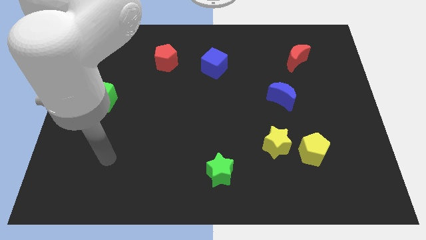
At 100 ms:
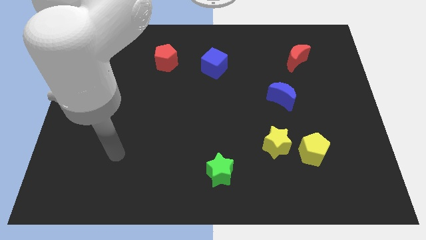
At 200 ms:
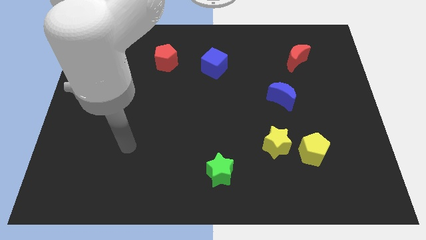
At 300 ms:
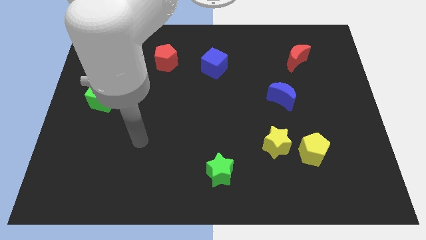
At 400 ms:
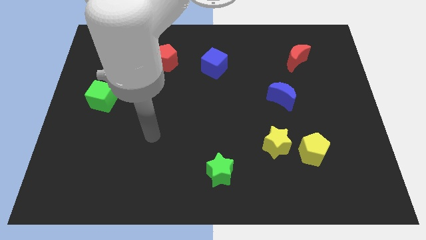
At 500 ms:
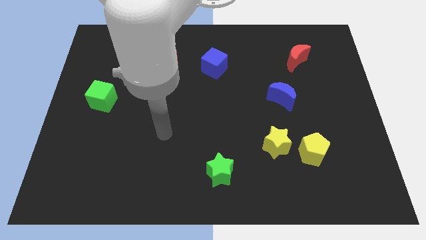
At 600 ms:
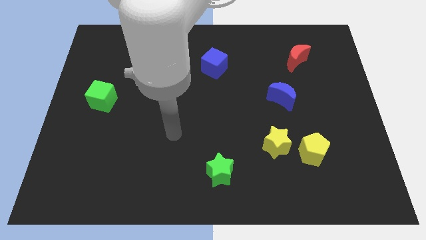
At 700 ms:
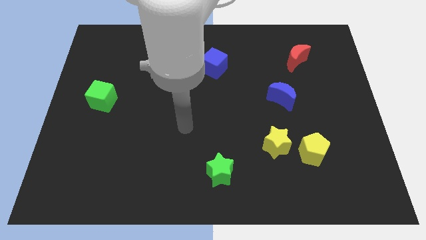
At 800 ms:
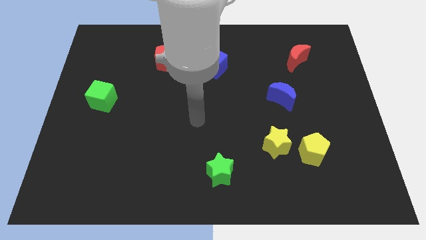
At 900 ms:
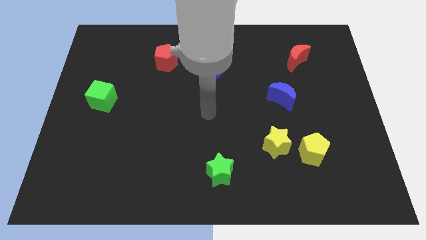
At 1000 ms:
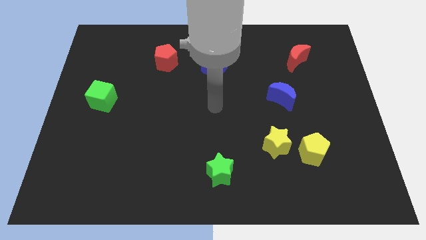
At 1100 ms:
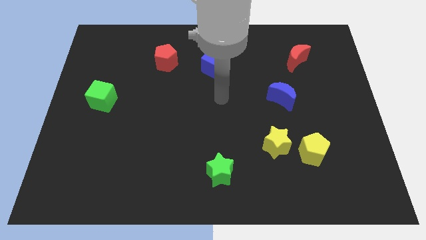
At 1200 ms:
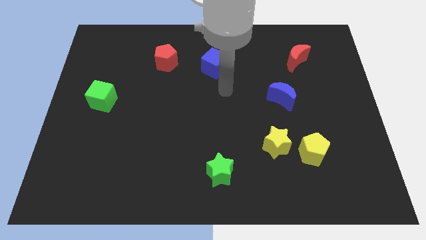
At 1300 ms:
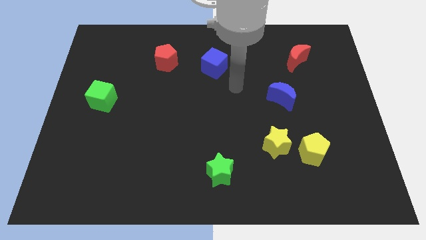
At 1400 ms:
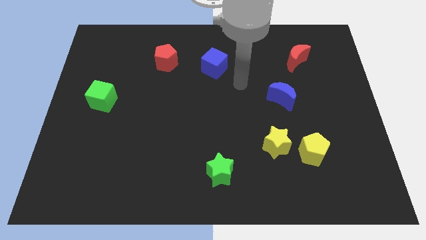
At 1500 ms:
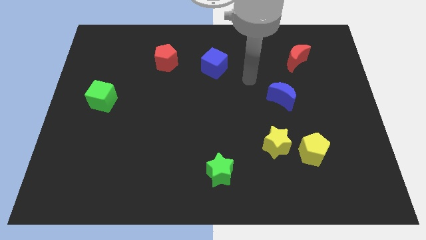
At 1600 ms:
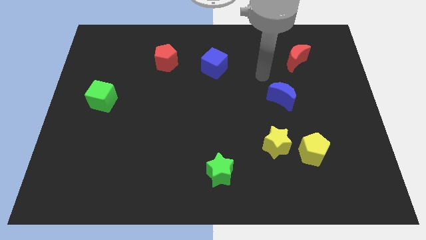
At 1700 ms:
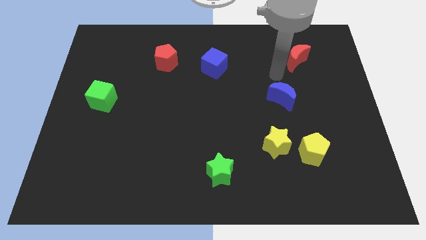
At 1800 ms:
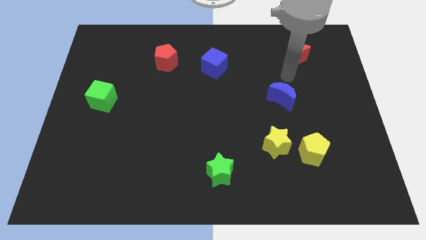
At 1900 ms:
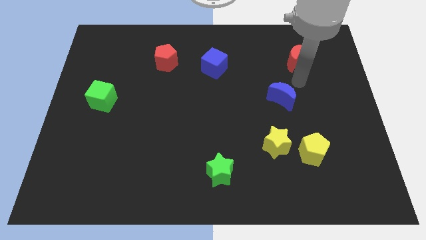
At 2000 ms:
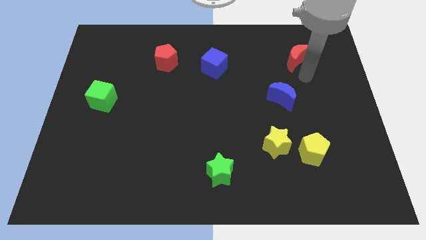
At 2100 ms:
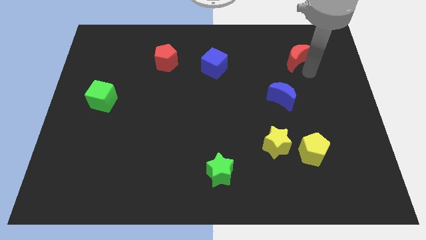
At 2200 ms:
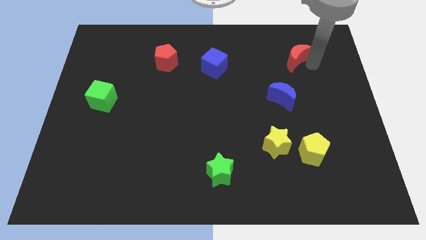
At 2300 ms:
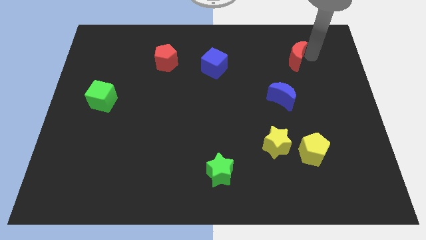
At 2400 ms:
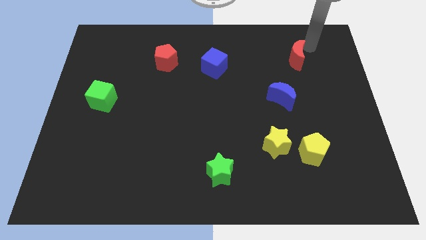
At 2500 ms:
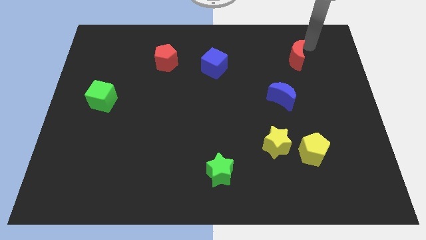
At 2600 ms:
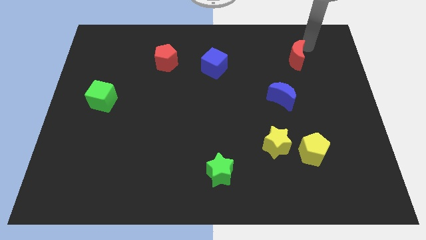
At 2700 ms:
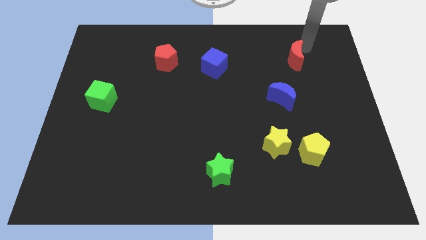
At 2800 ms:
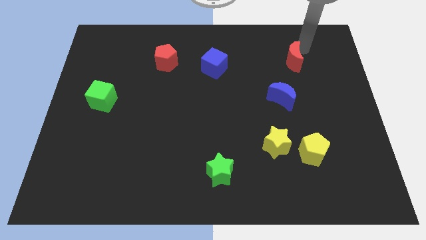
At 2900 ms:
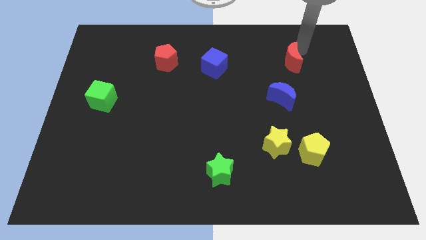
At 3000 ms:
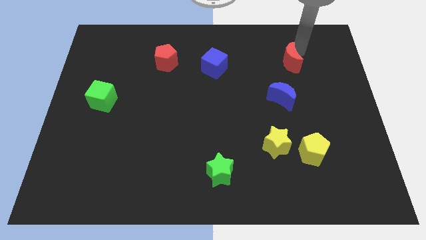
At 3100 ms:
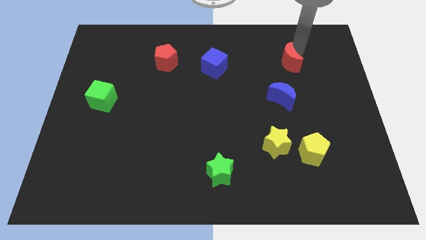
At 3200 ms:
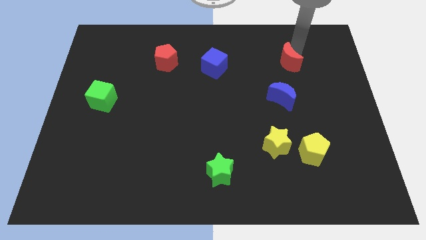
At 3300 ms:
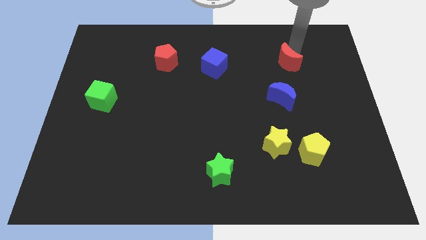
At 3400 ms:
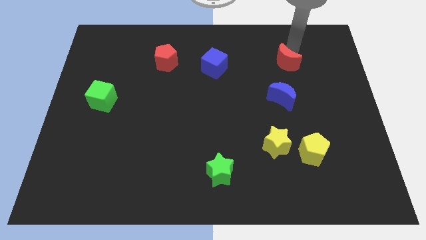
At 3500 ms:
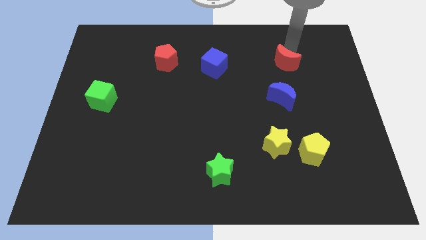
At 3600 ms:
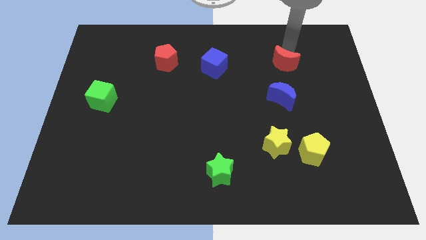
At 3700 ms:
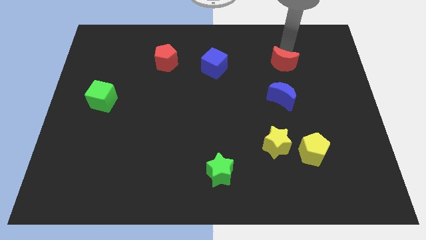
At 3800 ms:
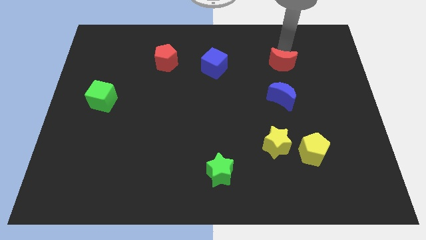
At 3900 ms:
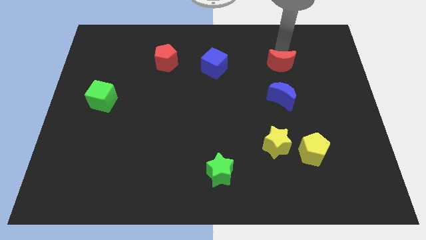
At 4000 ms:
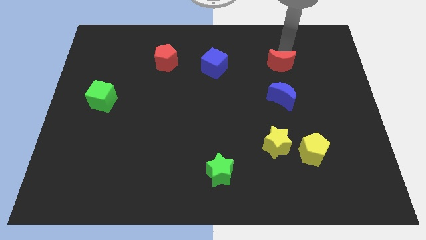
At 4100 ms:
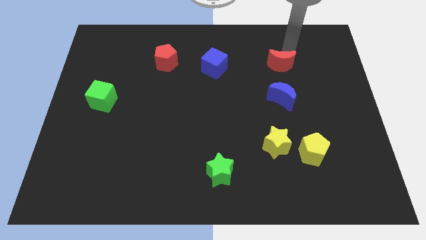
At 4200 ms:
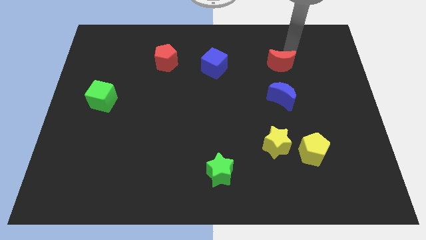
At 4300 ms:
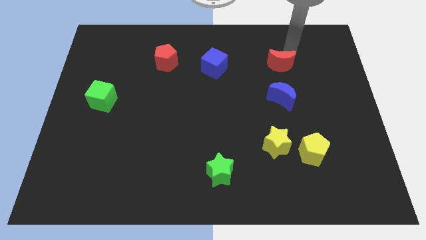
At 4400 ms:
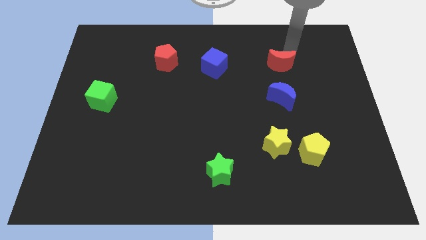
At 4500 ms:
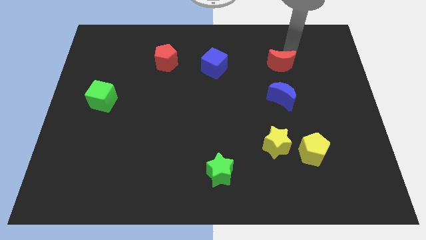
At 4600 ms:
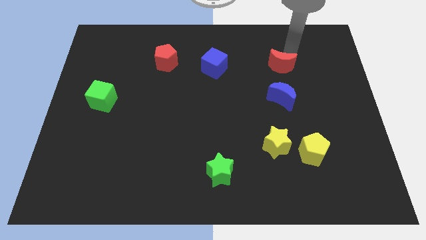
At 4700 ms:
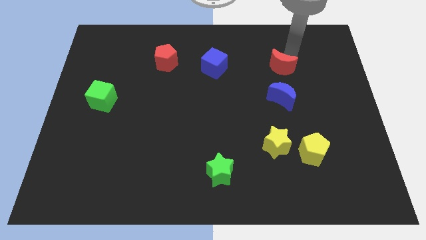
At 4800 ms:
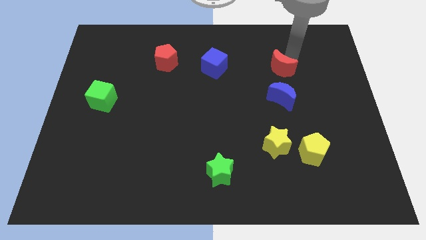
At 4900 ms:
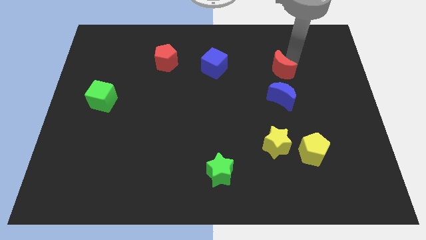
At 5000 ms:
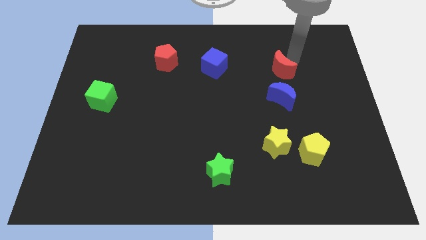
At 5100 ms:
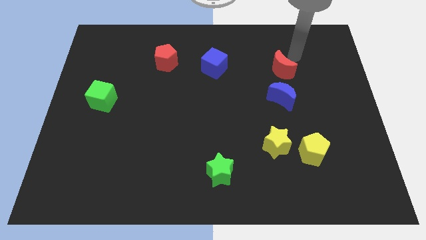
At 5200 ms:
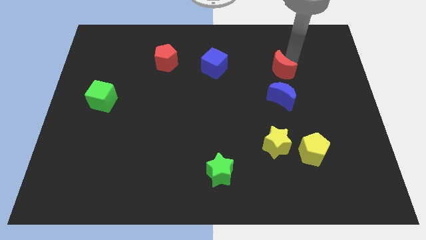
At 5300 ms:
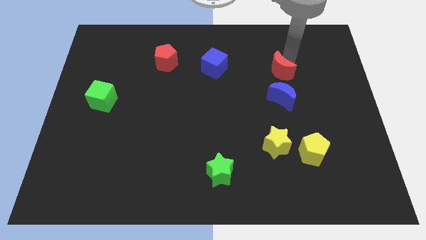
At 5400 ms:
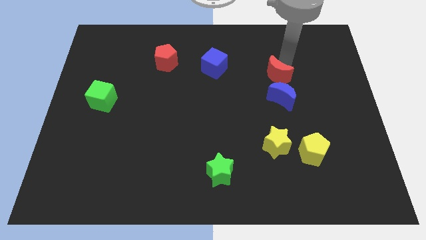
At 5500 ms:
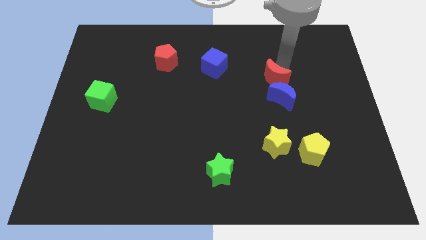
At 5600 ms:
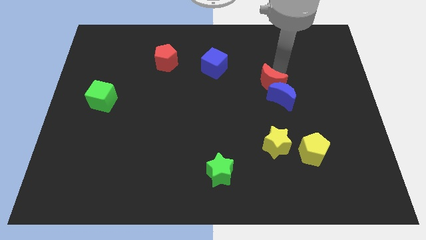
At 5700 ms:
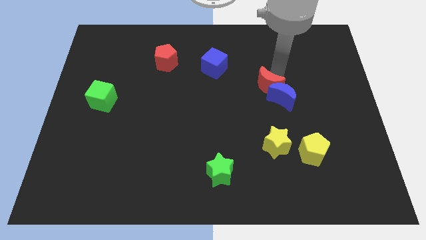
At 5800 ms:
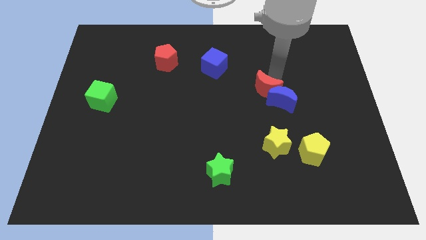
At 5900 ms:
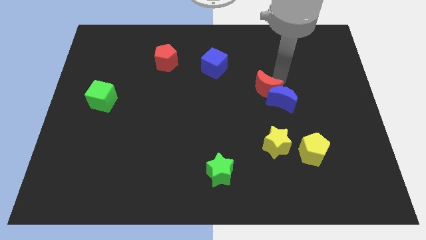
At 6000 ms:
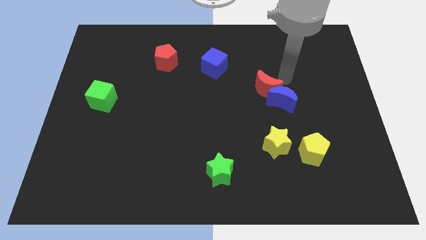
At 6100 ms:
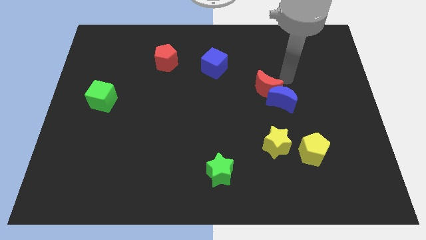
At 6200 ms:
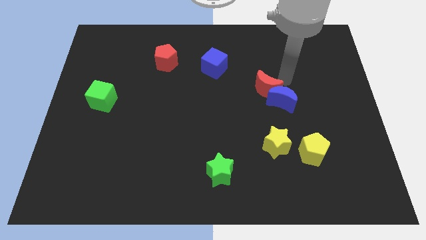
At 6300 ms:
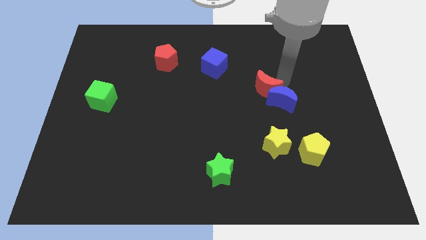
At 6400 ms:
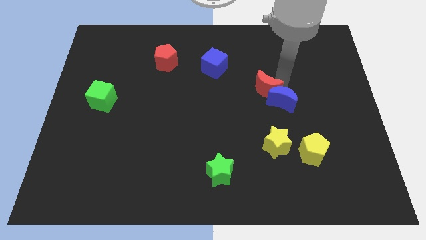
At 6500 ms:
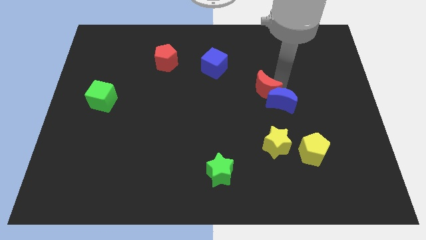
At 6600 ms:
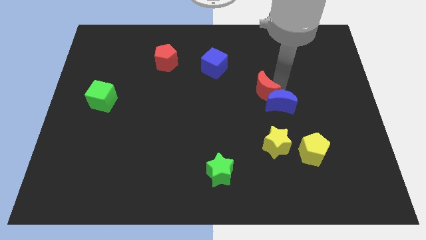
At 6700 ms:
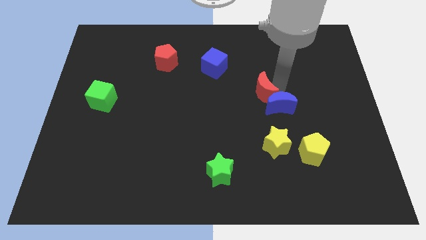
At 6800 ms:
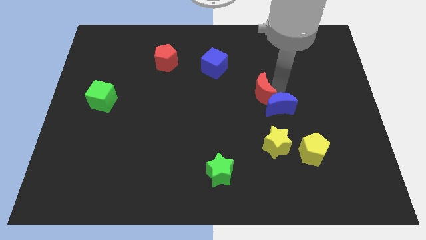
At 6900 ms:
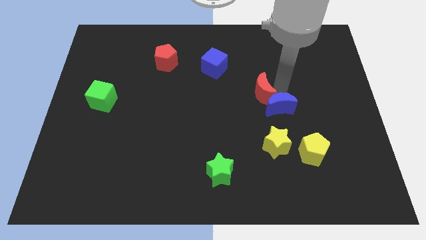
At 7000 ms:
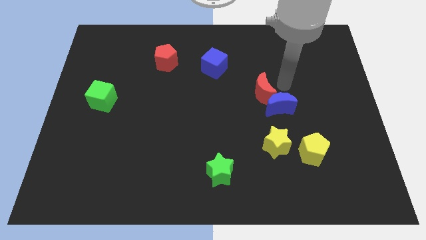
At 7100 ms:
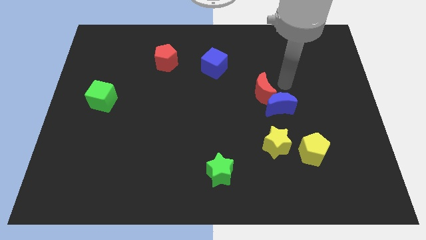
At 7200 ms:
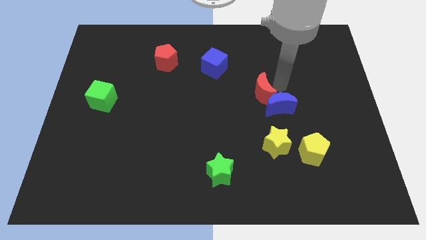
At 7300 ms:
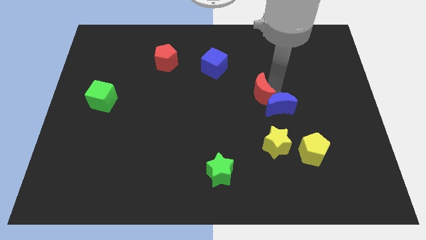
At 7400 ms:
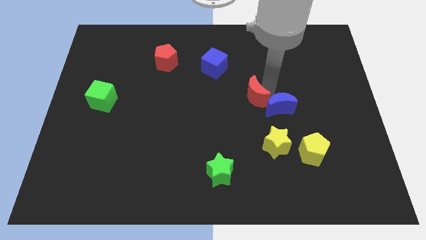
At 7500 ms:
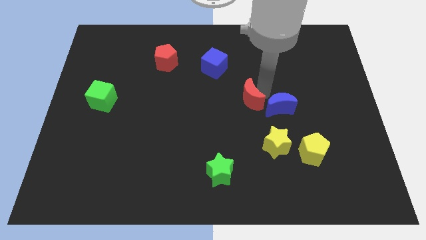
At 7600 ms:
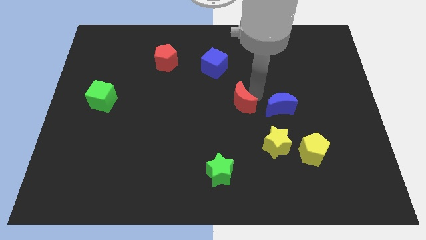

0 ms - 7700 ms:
slide the red moon down and to the left diagonally

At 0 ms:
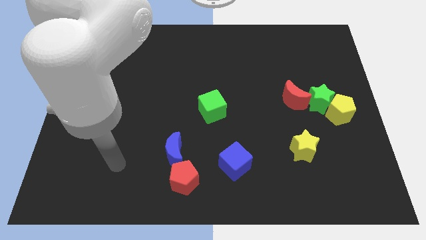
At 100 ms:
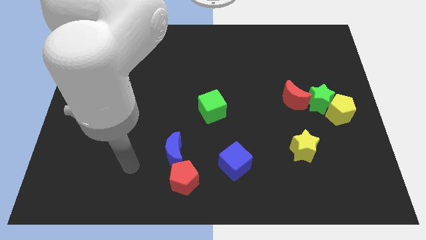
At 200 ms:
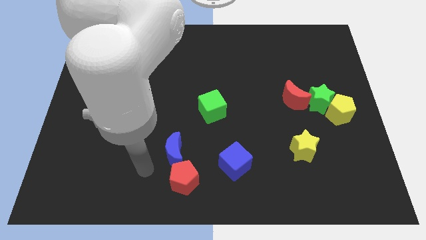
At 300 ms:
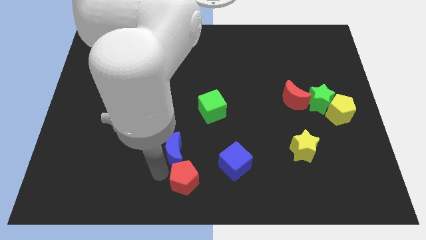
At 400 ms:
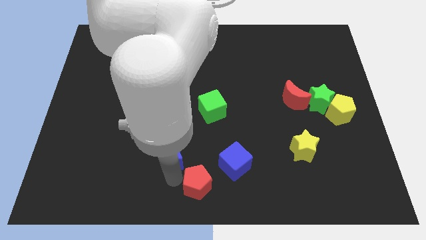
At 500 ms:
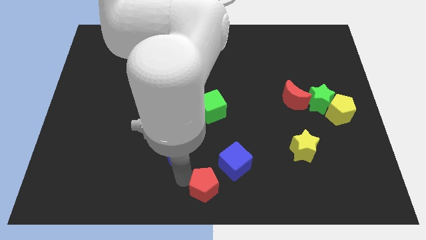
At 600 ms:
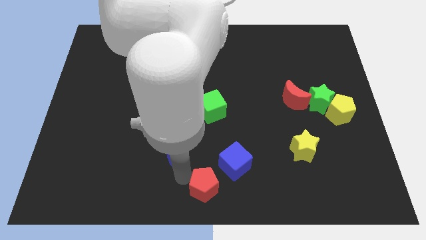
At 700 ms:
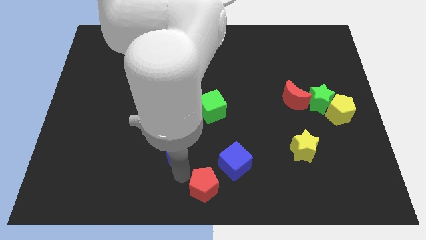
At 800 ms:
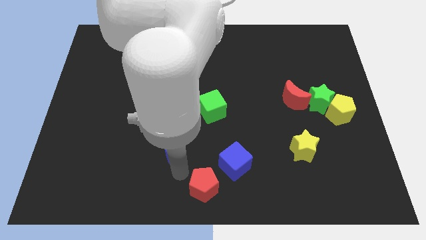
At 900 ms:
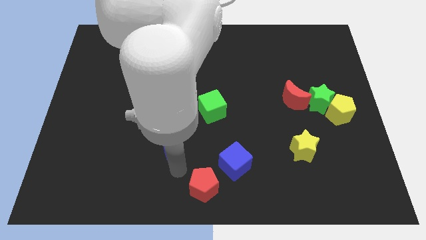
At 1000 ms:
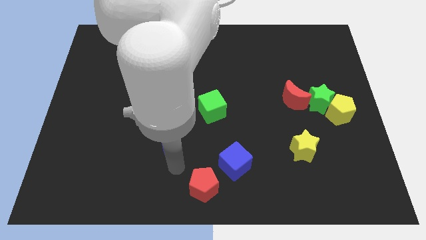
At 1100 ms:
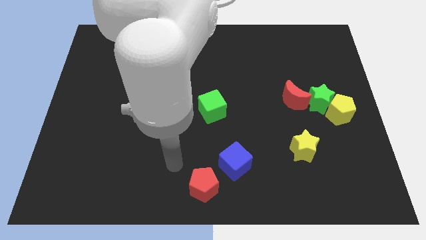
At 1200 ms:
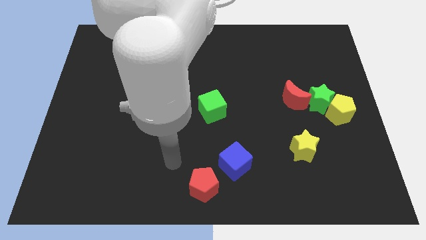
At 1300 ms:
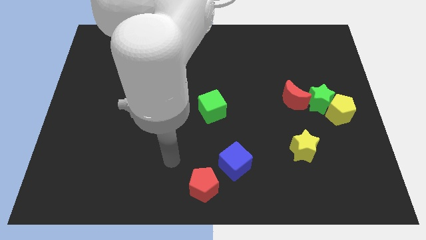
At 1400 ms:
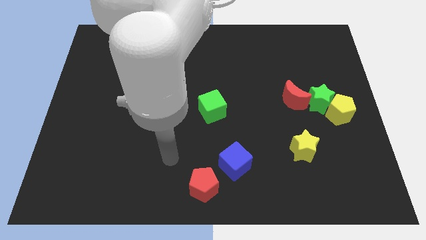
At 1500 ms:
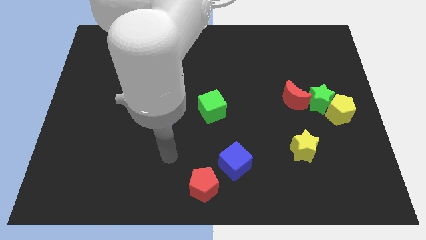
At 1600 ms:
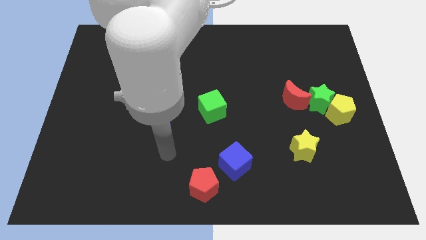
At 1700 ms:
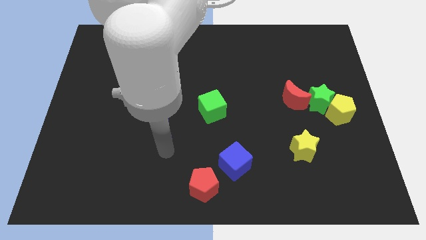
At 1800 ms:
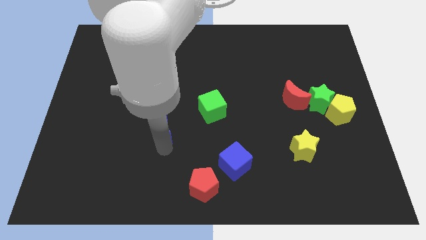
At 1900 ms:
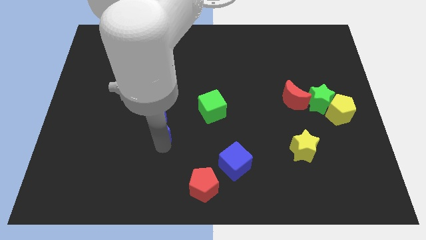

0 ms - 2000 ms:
slightly push the blue moon up and to the left
